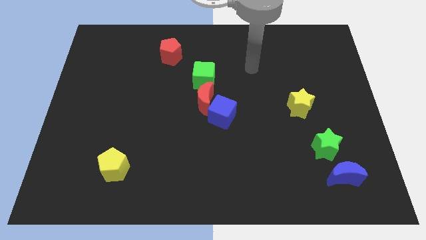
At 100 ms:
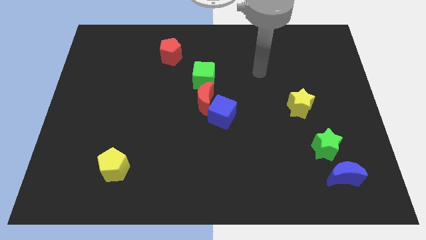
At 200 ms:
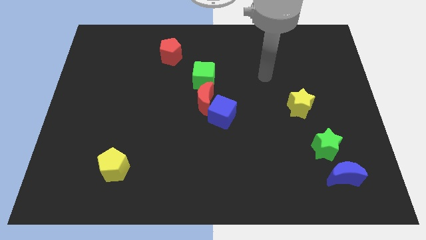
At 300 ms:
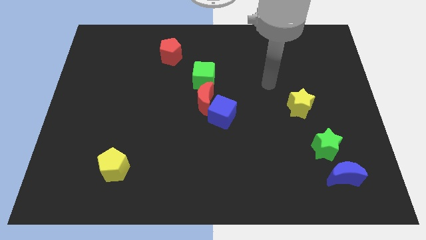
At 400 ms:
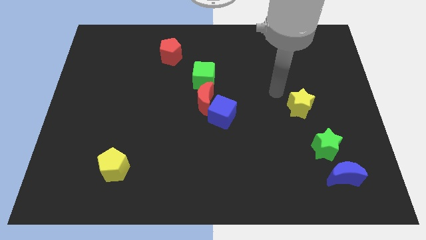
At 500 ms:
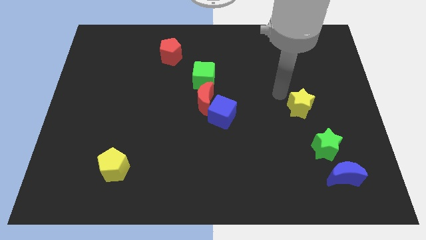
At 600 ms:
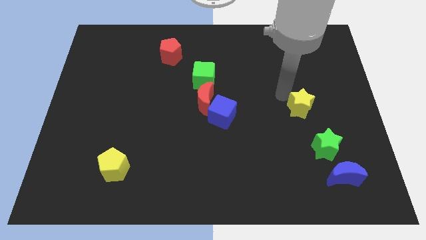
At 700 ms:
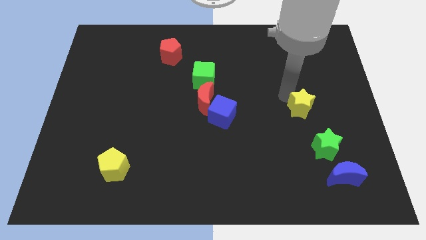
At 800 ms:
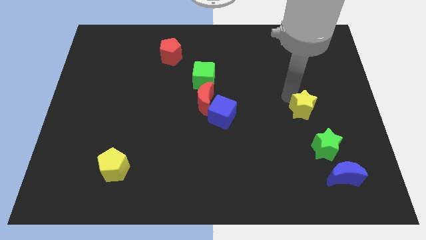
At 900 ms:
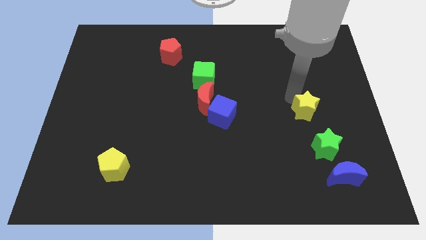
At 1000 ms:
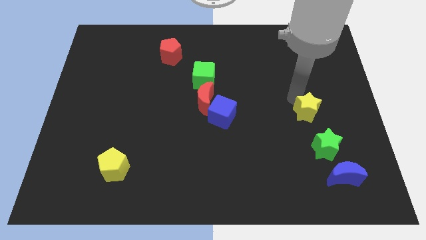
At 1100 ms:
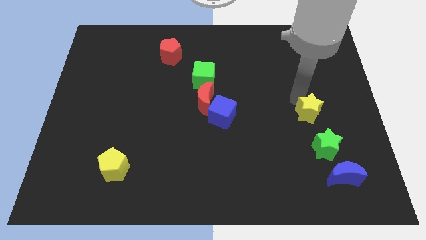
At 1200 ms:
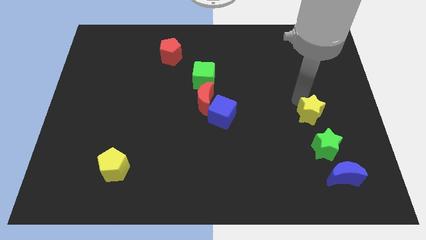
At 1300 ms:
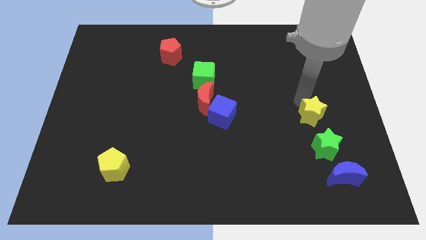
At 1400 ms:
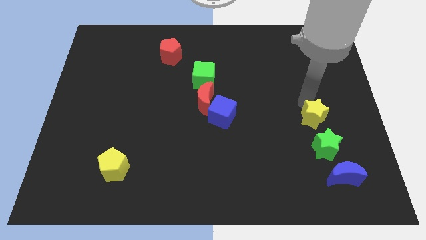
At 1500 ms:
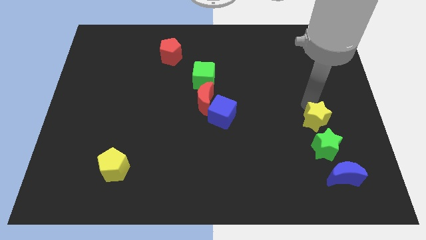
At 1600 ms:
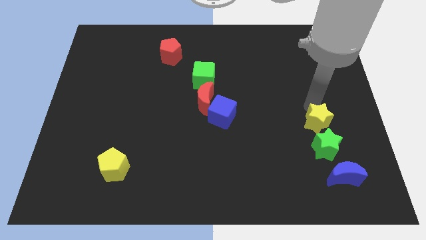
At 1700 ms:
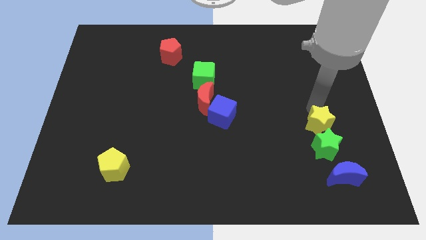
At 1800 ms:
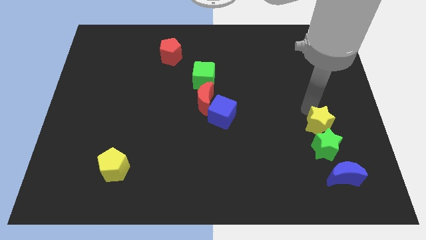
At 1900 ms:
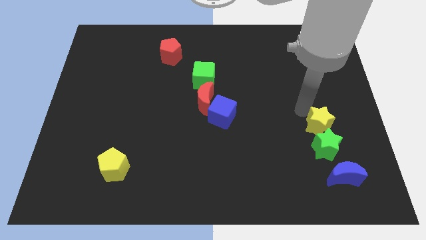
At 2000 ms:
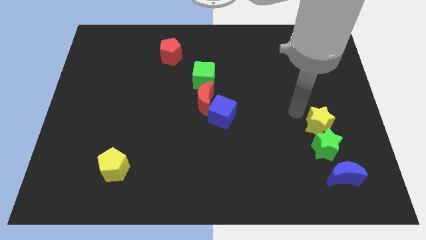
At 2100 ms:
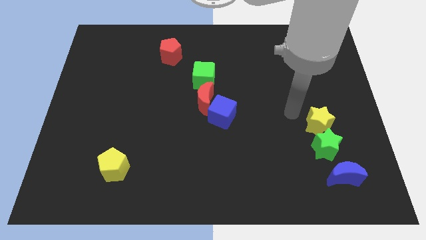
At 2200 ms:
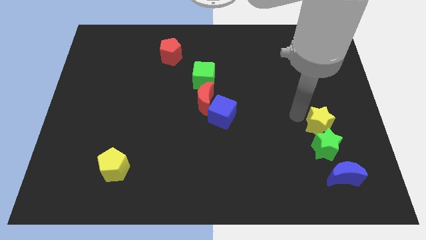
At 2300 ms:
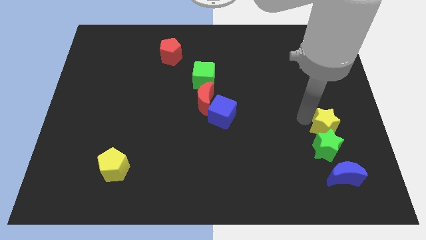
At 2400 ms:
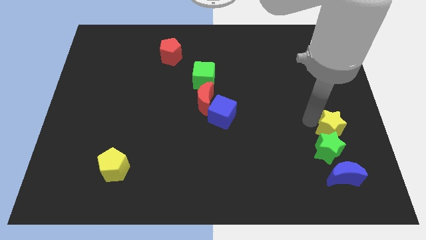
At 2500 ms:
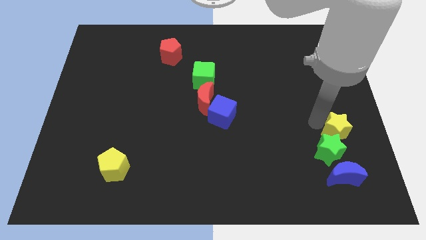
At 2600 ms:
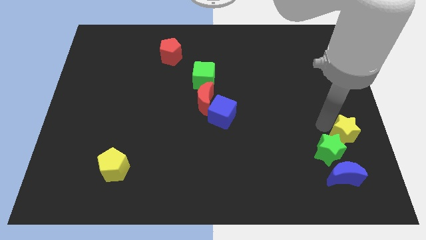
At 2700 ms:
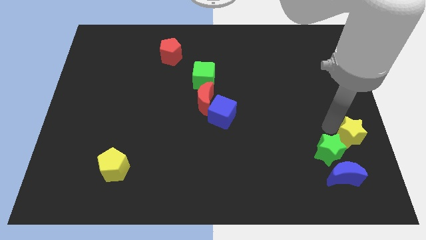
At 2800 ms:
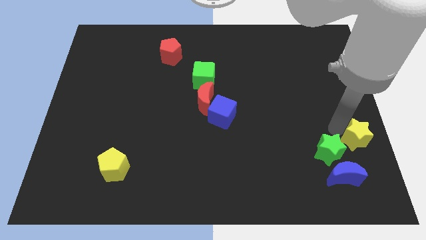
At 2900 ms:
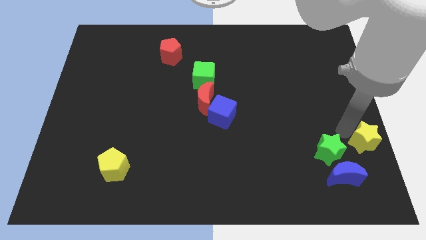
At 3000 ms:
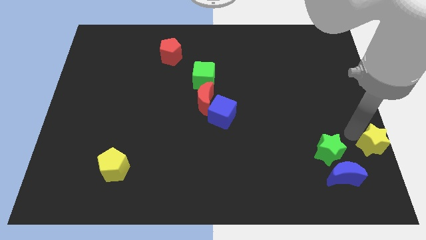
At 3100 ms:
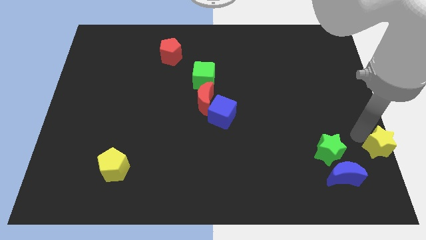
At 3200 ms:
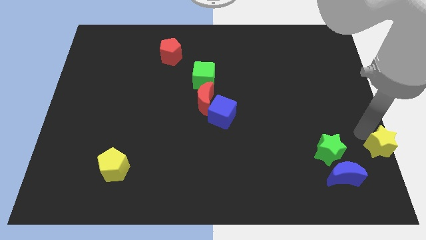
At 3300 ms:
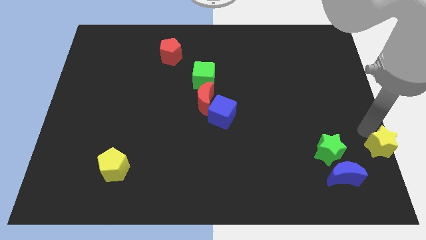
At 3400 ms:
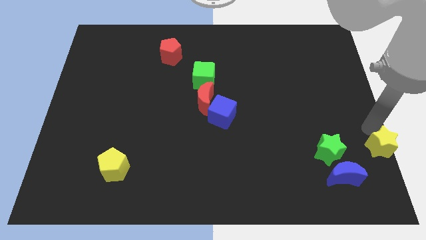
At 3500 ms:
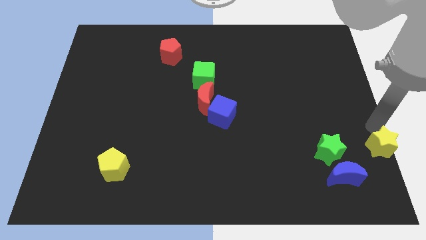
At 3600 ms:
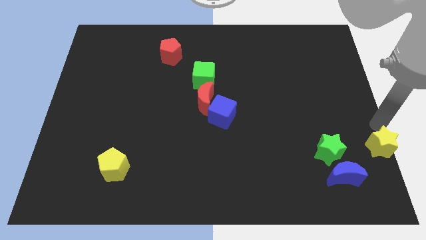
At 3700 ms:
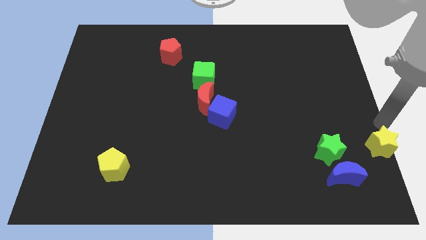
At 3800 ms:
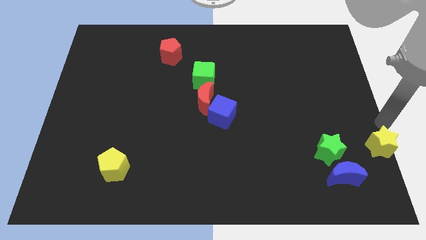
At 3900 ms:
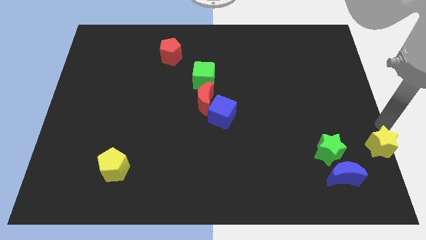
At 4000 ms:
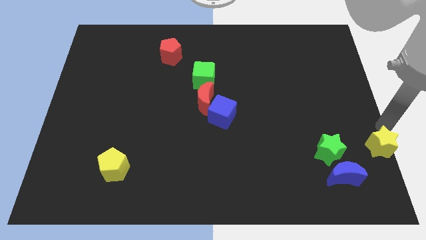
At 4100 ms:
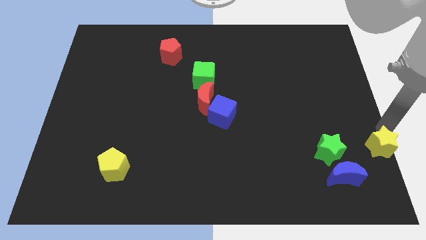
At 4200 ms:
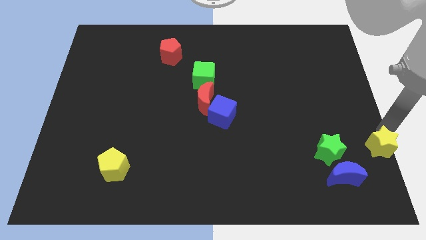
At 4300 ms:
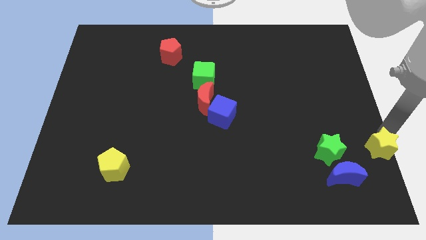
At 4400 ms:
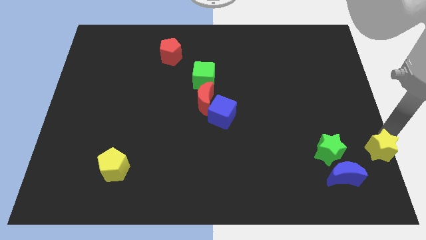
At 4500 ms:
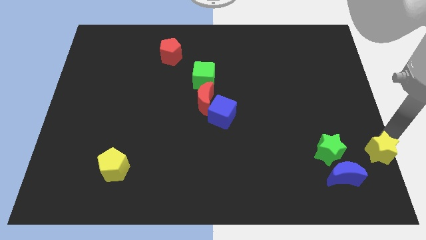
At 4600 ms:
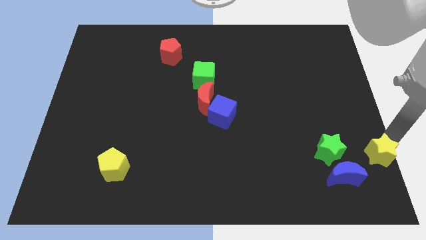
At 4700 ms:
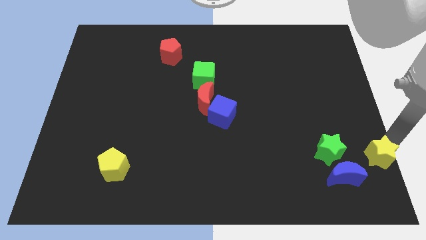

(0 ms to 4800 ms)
move the yellow star to the bottom right corner

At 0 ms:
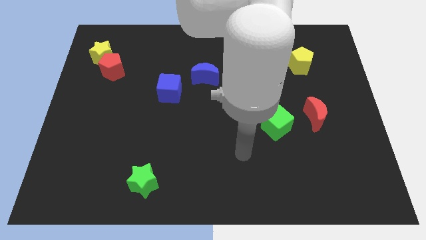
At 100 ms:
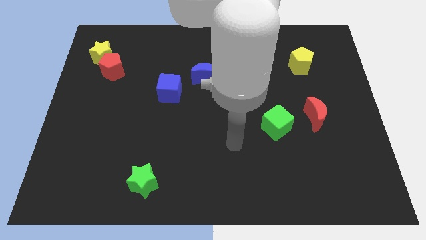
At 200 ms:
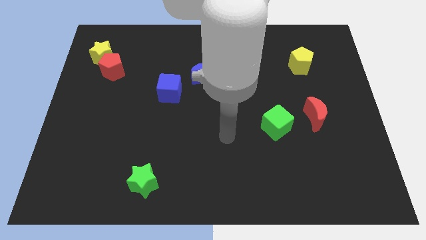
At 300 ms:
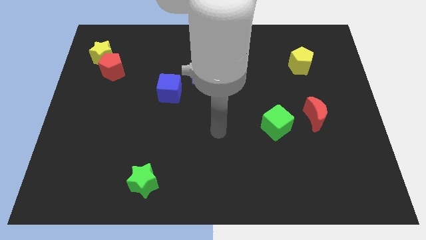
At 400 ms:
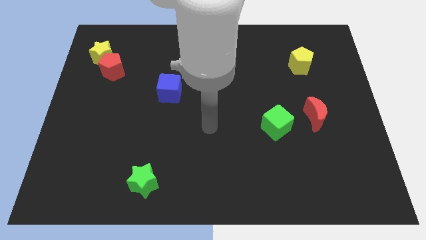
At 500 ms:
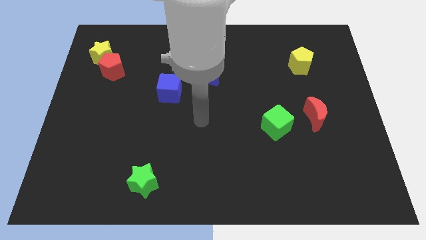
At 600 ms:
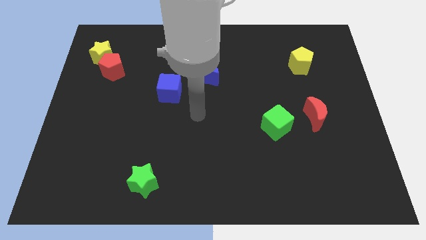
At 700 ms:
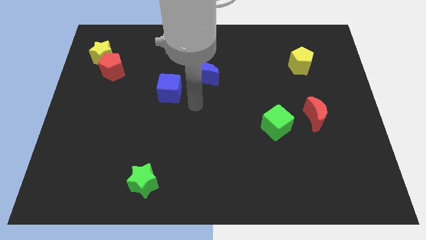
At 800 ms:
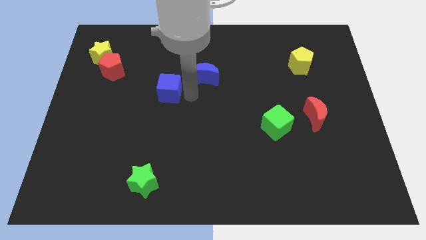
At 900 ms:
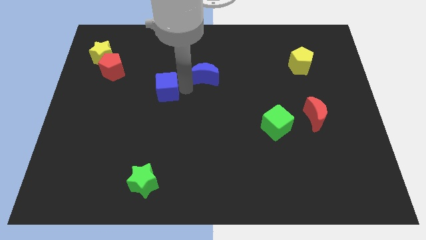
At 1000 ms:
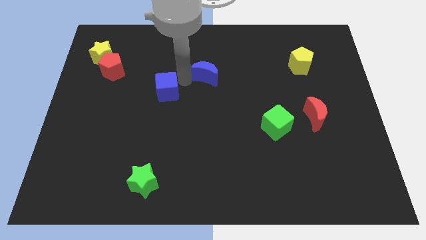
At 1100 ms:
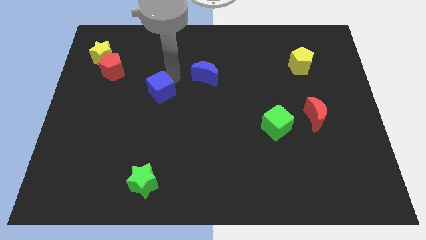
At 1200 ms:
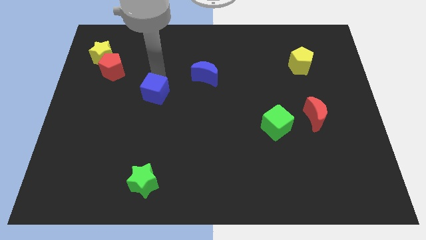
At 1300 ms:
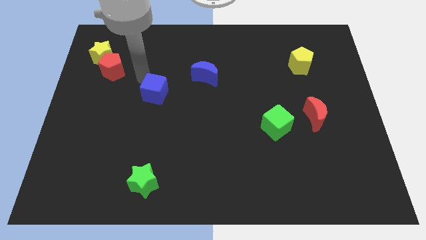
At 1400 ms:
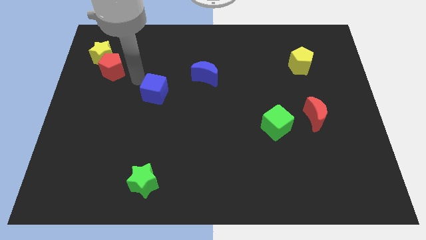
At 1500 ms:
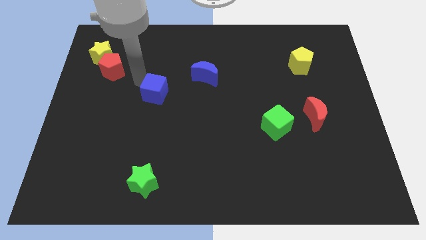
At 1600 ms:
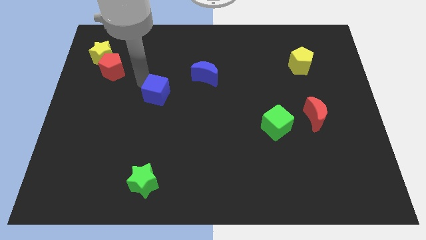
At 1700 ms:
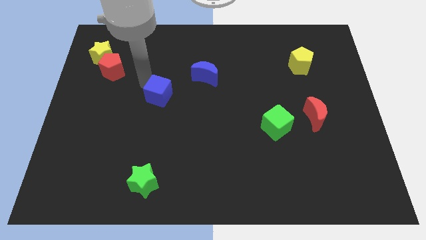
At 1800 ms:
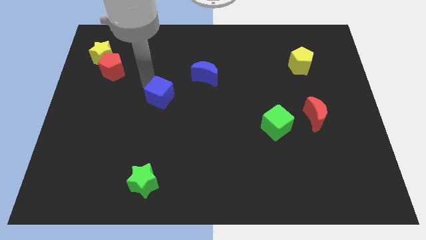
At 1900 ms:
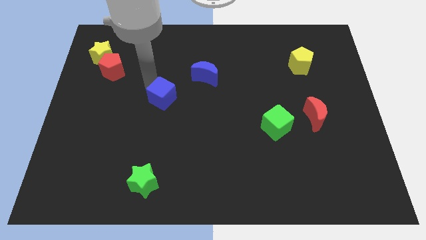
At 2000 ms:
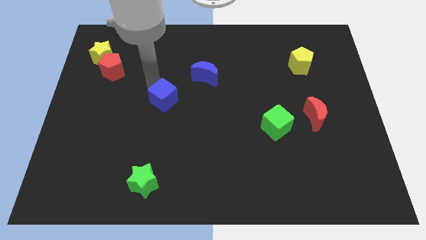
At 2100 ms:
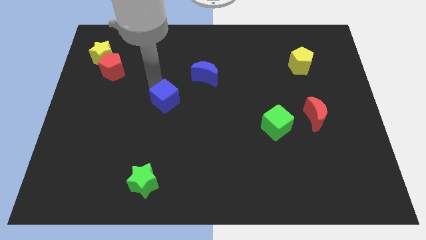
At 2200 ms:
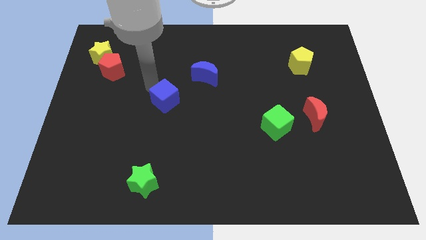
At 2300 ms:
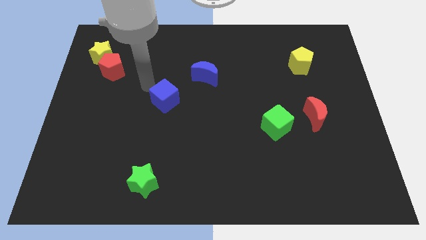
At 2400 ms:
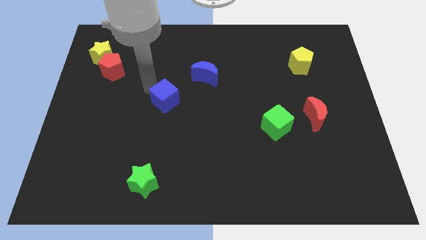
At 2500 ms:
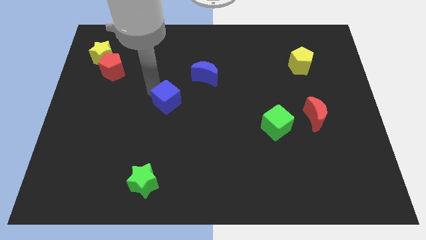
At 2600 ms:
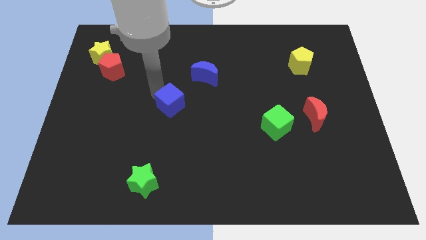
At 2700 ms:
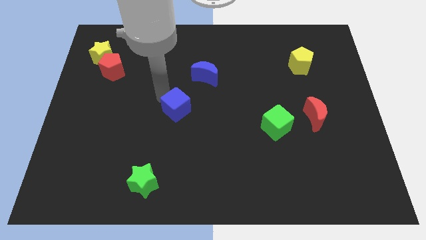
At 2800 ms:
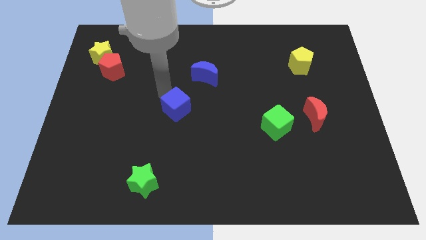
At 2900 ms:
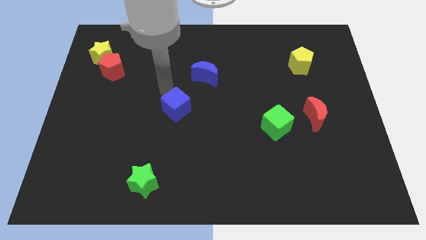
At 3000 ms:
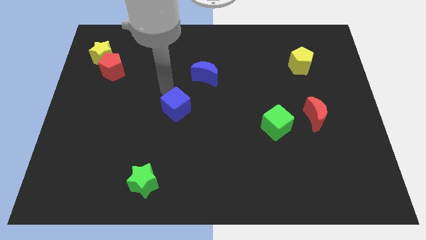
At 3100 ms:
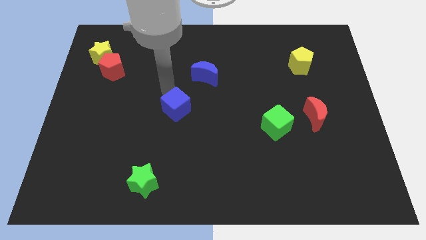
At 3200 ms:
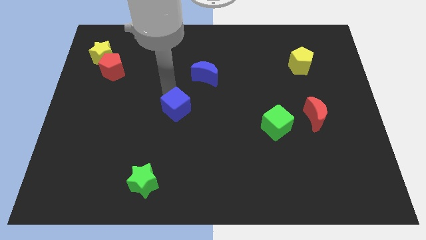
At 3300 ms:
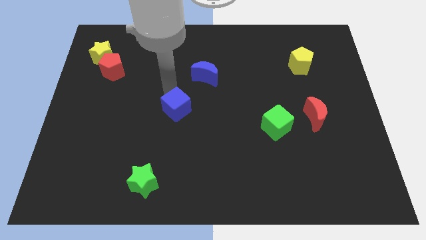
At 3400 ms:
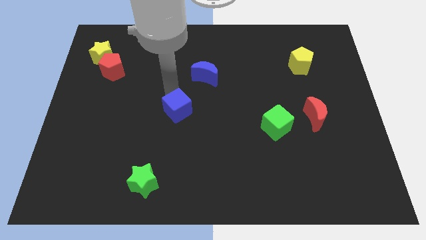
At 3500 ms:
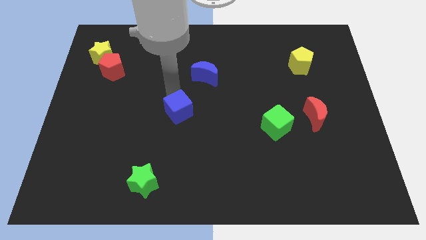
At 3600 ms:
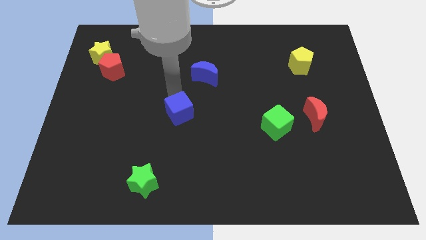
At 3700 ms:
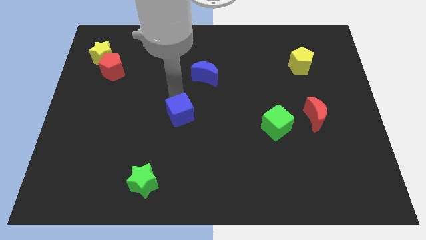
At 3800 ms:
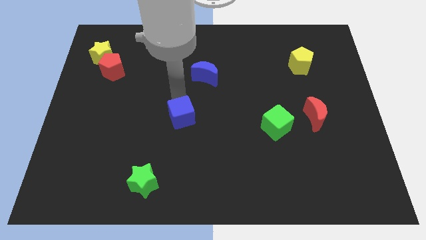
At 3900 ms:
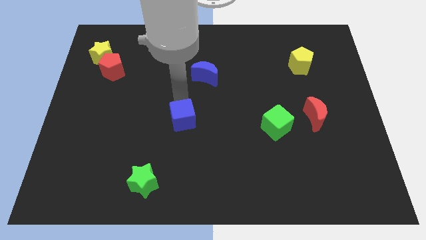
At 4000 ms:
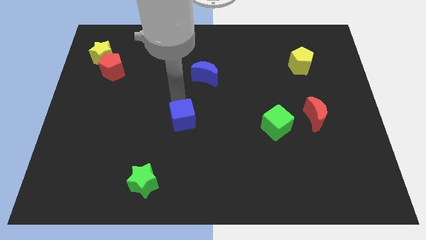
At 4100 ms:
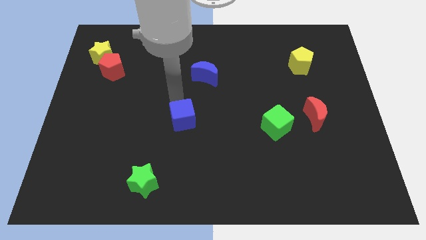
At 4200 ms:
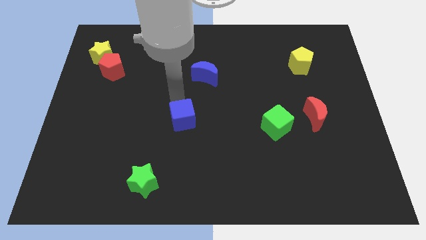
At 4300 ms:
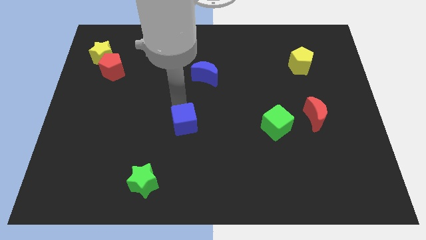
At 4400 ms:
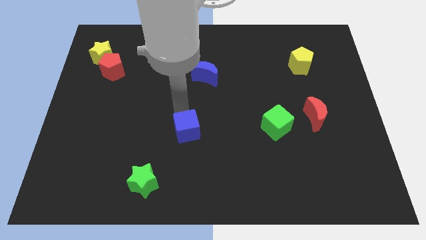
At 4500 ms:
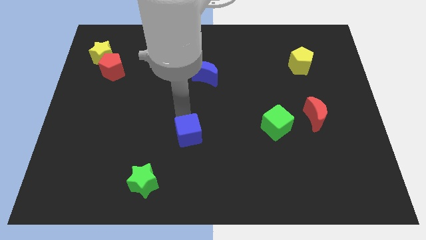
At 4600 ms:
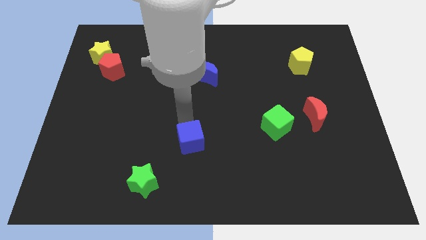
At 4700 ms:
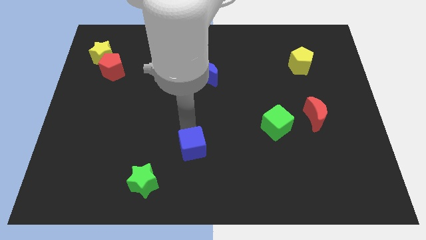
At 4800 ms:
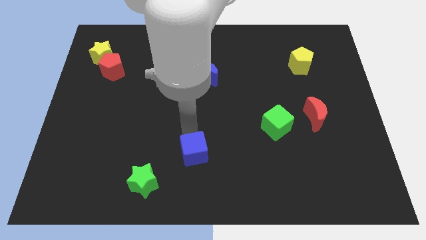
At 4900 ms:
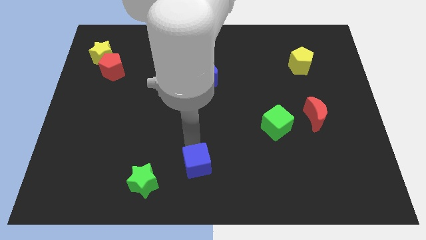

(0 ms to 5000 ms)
put the blue cube to the bottom
